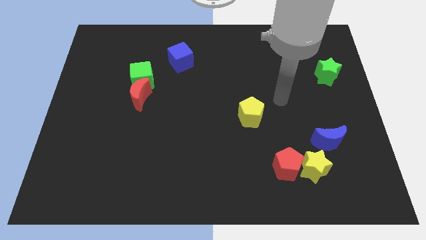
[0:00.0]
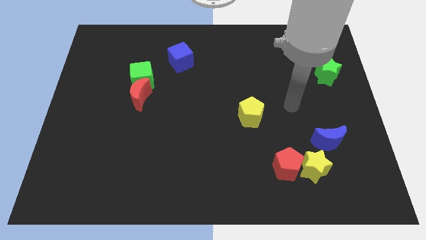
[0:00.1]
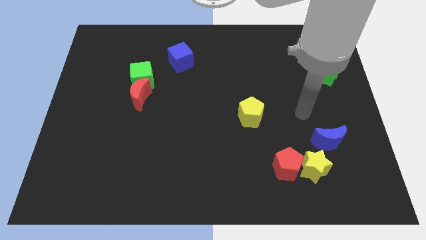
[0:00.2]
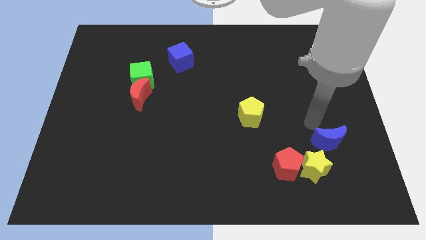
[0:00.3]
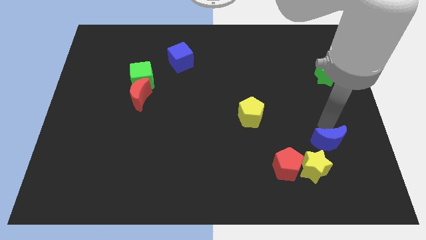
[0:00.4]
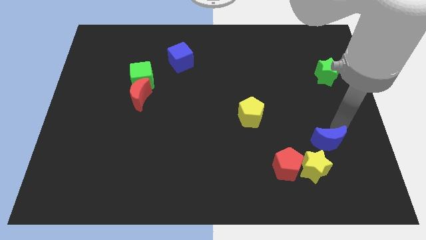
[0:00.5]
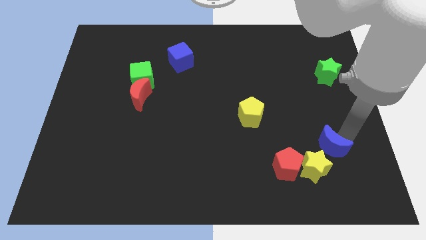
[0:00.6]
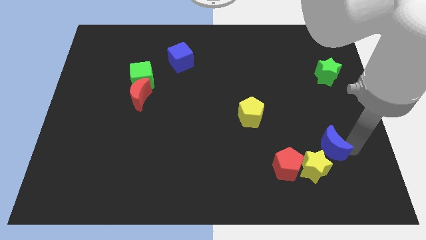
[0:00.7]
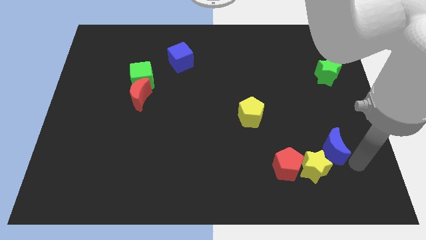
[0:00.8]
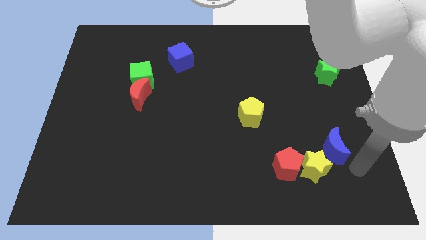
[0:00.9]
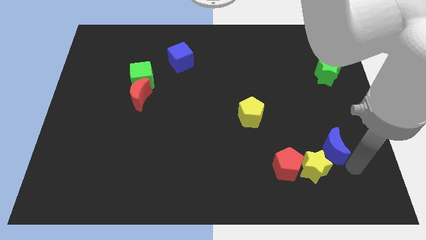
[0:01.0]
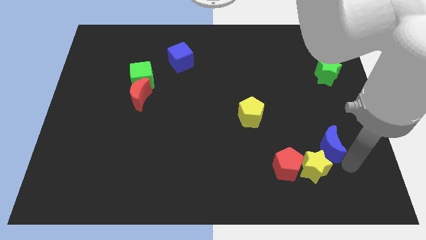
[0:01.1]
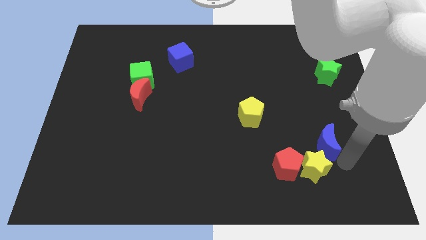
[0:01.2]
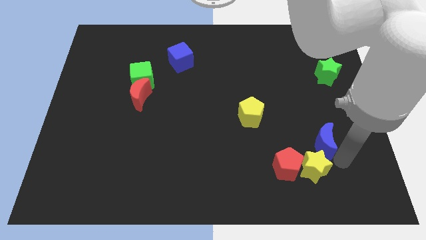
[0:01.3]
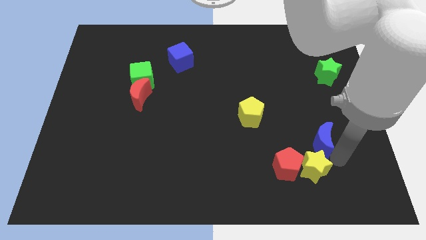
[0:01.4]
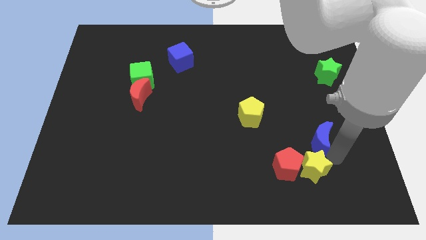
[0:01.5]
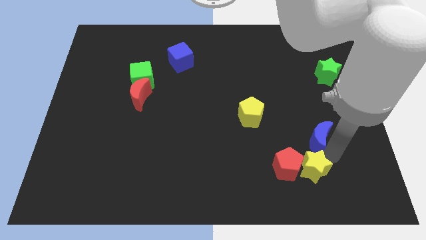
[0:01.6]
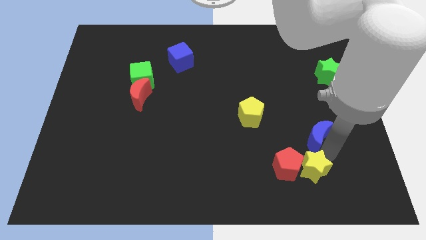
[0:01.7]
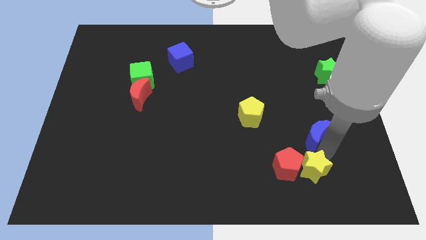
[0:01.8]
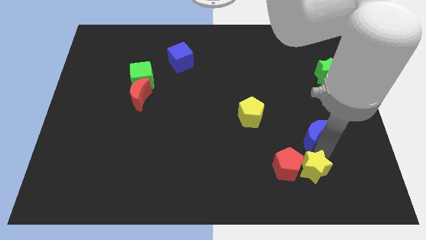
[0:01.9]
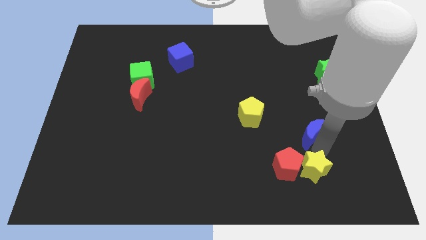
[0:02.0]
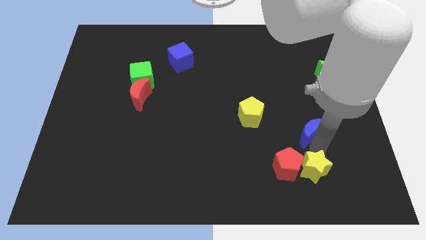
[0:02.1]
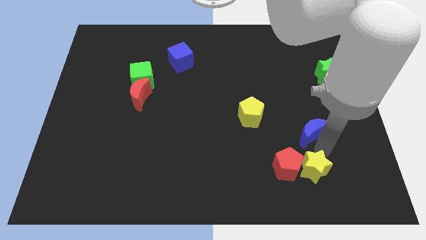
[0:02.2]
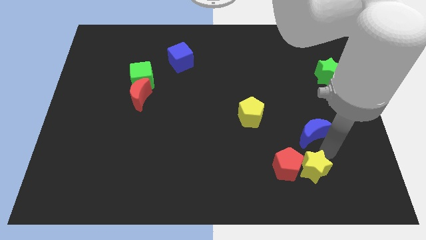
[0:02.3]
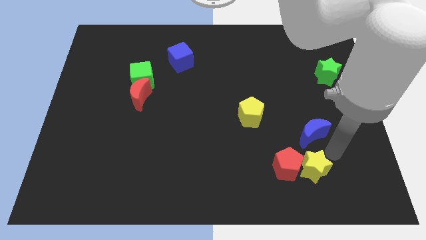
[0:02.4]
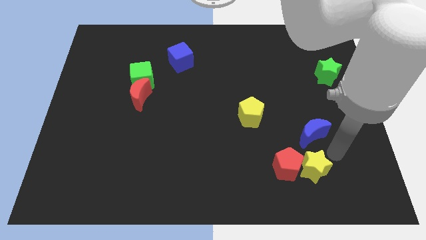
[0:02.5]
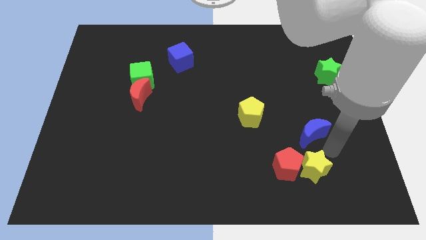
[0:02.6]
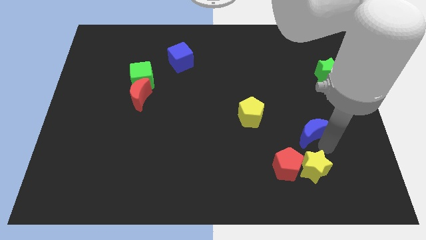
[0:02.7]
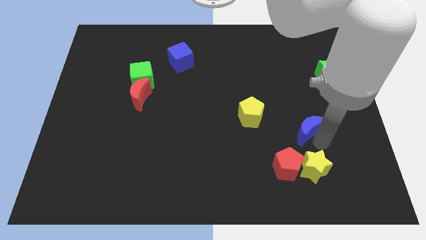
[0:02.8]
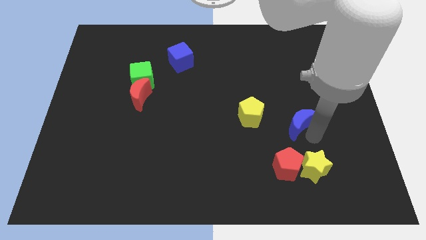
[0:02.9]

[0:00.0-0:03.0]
slightly move the blue moon upwards and then left

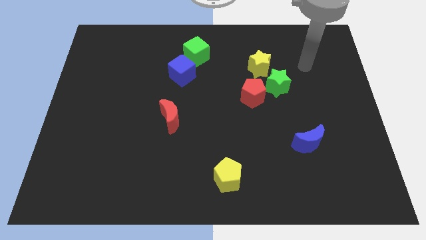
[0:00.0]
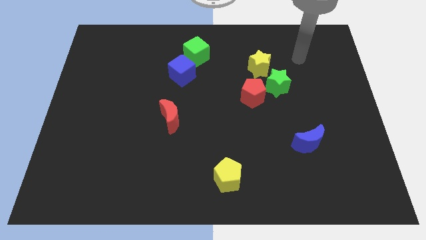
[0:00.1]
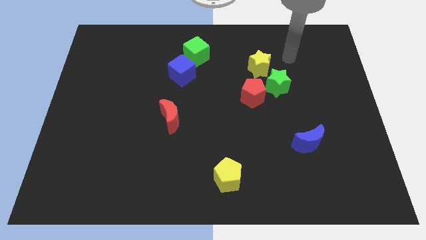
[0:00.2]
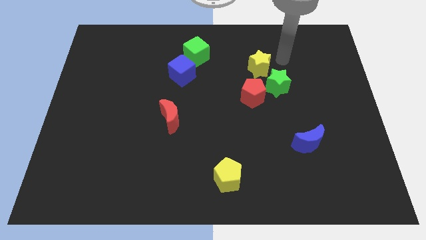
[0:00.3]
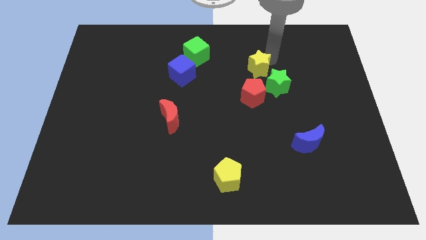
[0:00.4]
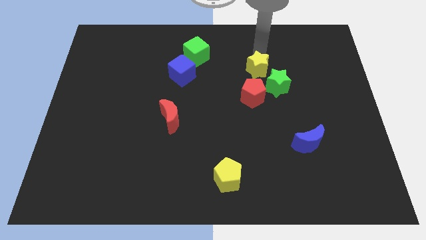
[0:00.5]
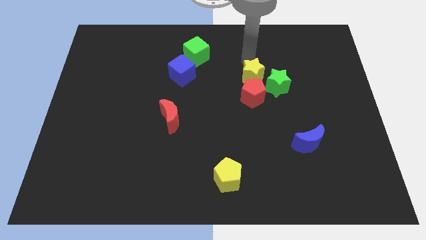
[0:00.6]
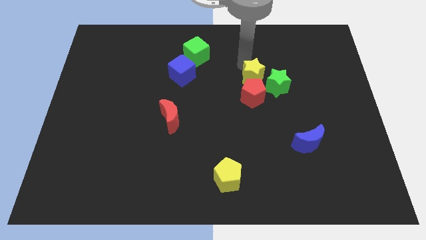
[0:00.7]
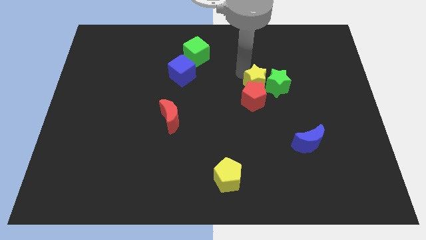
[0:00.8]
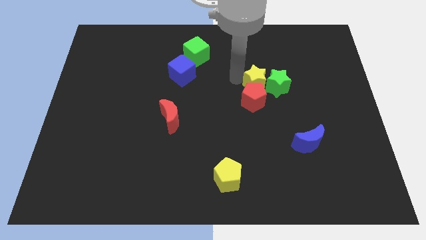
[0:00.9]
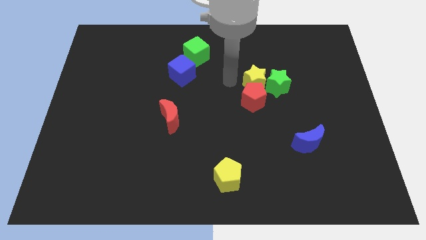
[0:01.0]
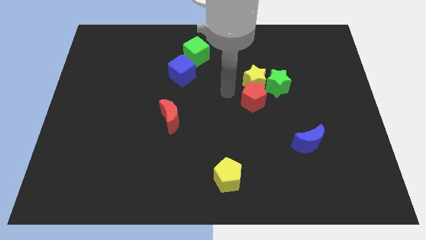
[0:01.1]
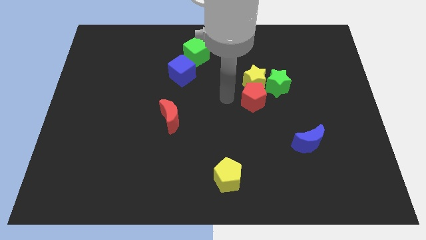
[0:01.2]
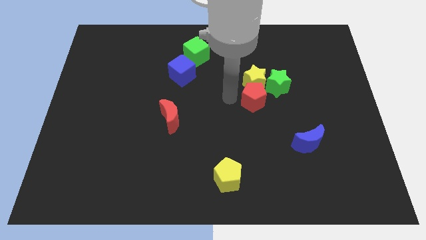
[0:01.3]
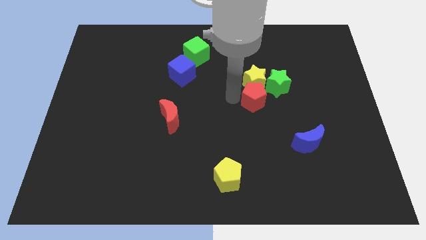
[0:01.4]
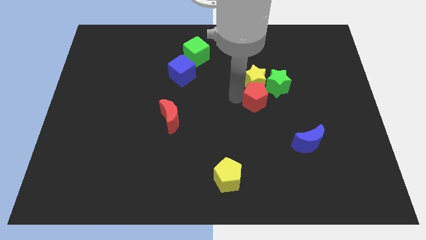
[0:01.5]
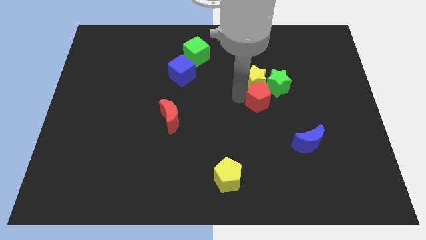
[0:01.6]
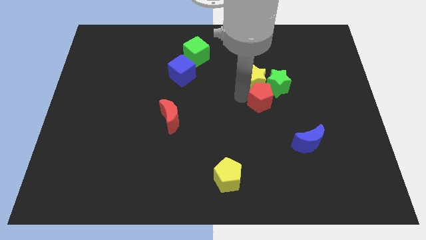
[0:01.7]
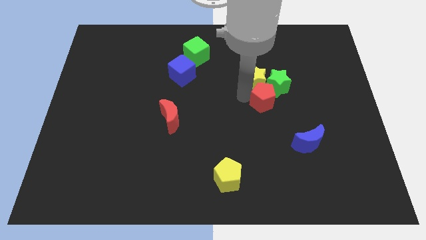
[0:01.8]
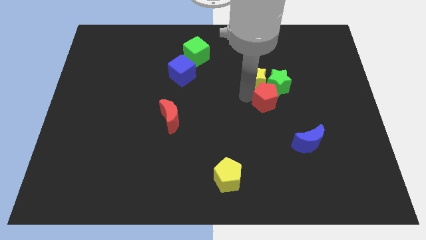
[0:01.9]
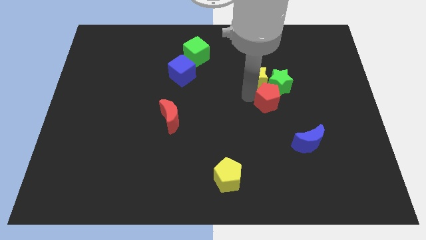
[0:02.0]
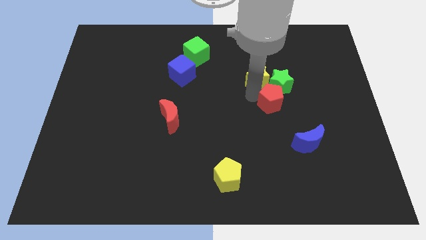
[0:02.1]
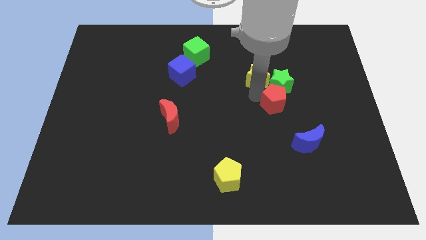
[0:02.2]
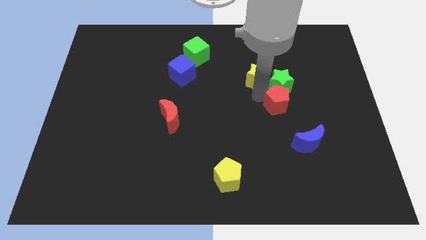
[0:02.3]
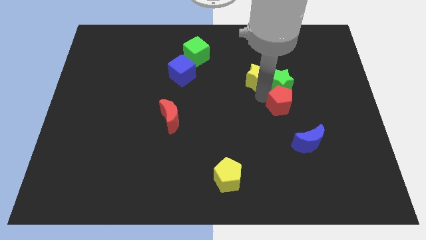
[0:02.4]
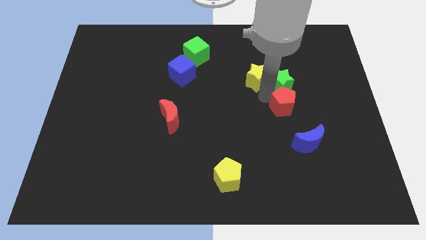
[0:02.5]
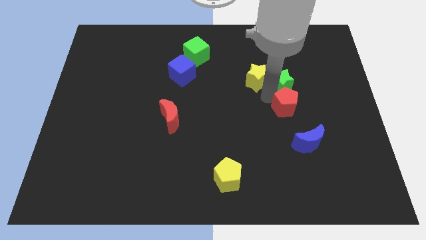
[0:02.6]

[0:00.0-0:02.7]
move the red pentagon a bit to the right

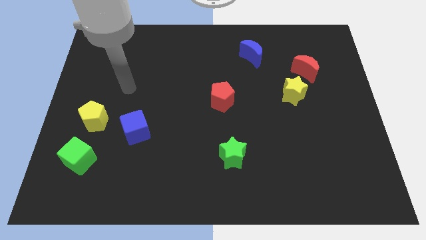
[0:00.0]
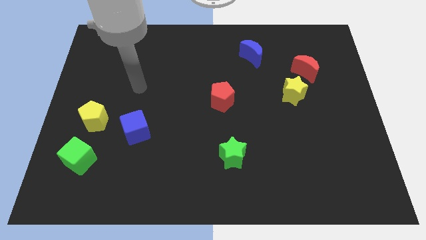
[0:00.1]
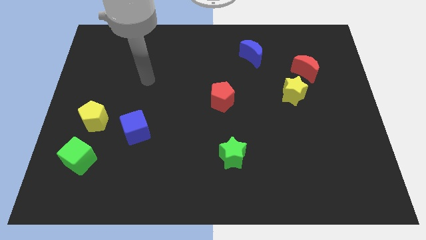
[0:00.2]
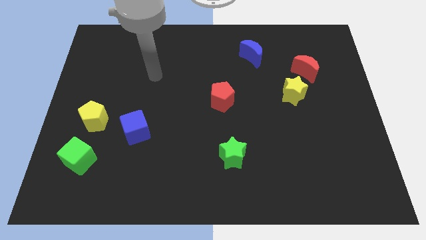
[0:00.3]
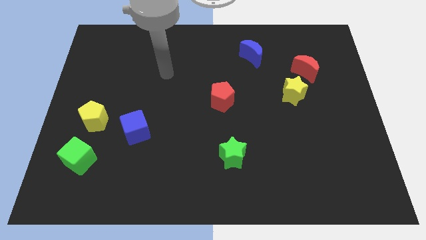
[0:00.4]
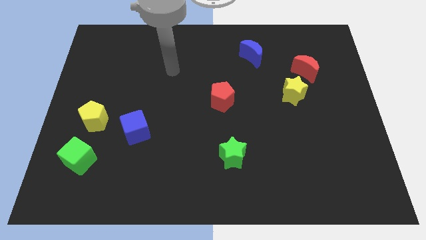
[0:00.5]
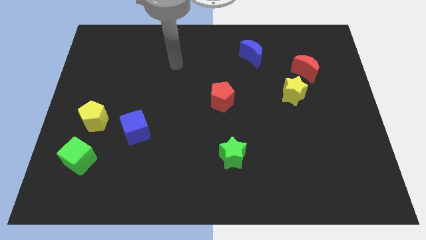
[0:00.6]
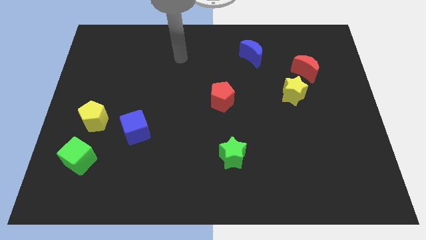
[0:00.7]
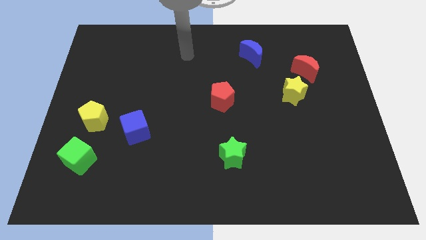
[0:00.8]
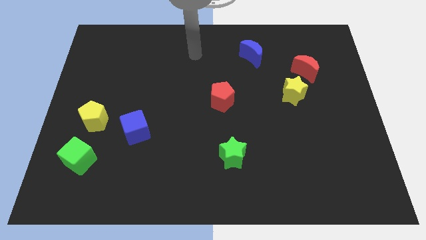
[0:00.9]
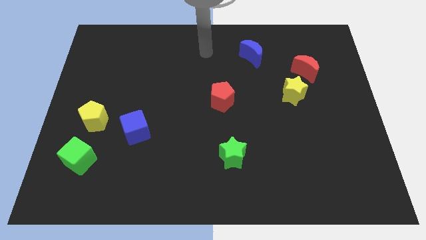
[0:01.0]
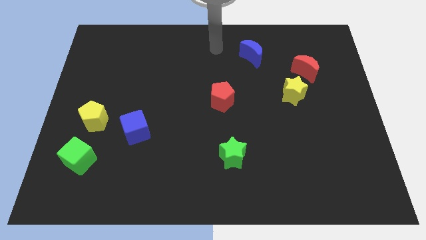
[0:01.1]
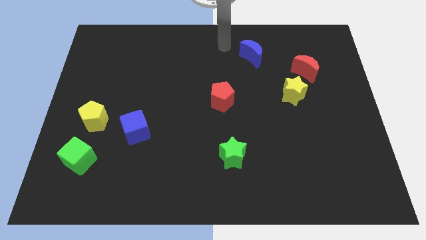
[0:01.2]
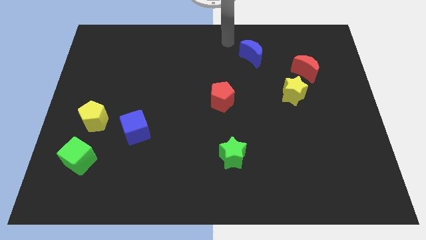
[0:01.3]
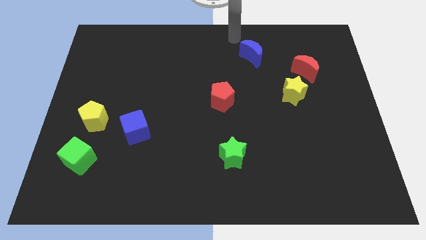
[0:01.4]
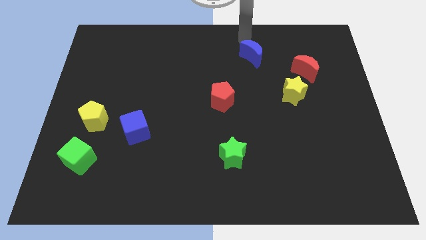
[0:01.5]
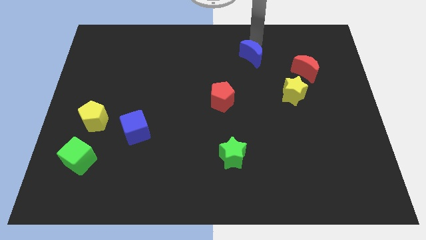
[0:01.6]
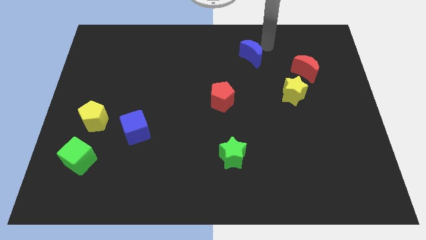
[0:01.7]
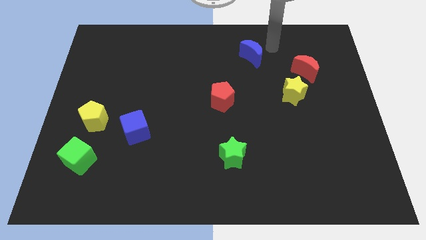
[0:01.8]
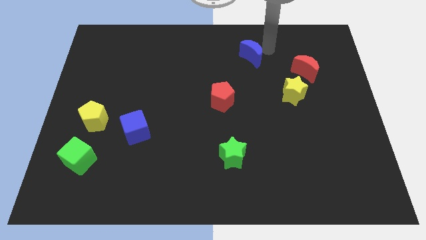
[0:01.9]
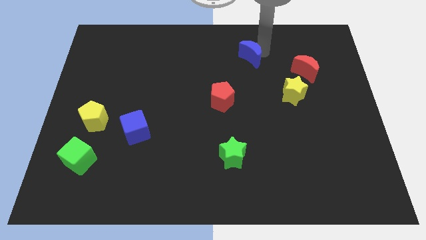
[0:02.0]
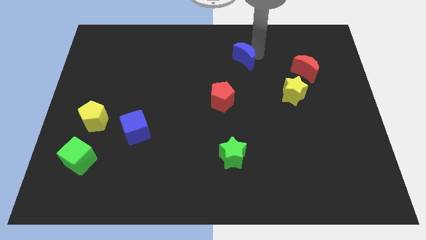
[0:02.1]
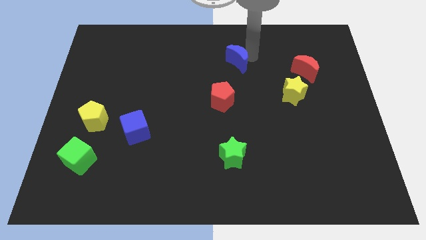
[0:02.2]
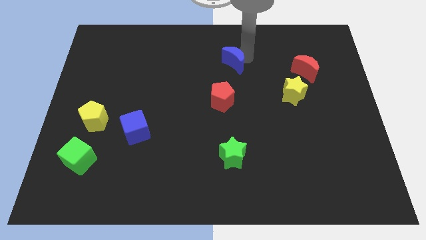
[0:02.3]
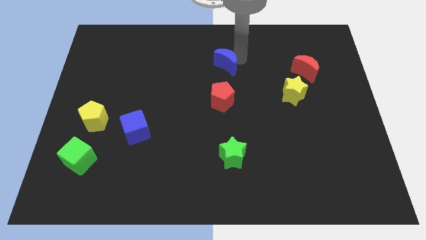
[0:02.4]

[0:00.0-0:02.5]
slide the blue moon down and to the left diagonally a bit

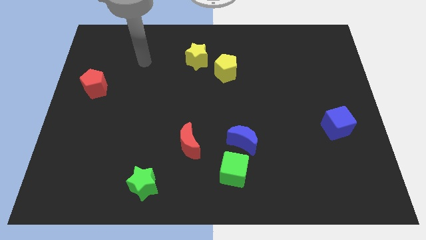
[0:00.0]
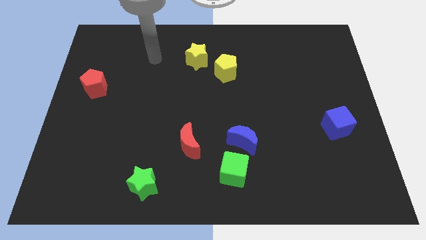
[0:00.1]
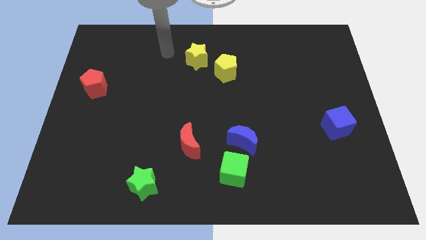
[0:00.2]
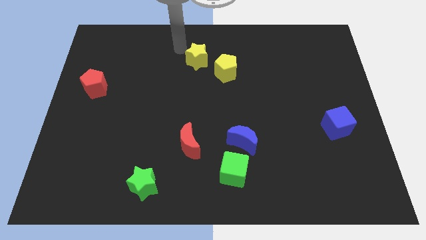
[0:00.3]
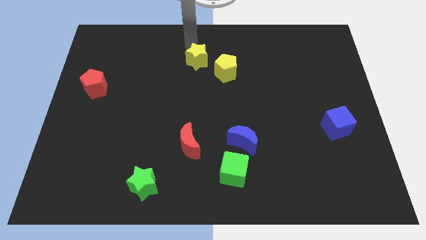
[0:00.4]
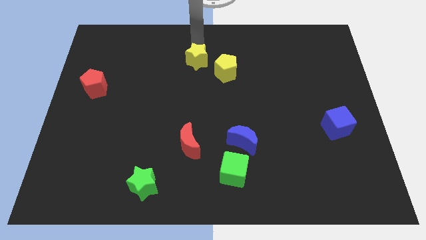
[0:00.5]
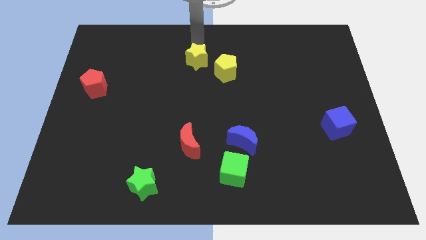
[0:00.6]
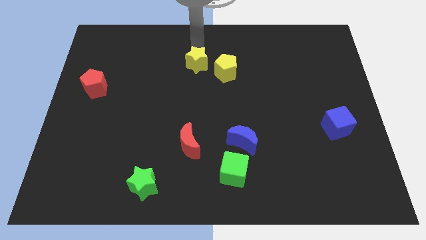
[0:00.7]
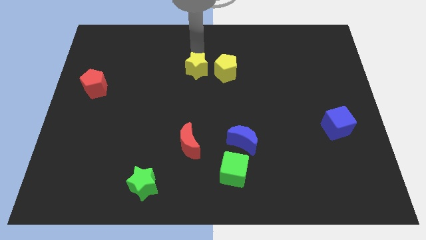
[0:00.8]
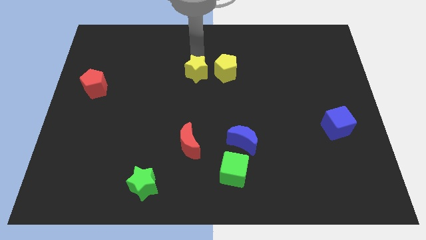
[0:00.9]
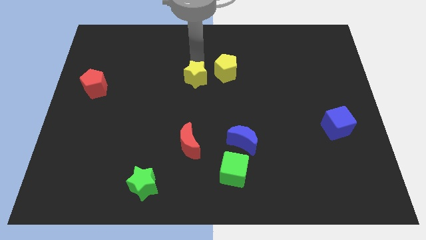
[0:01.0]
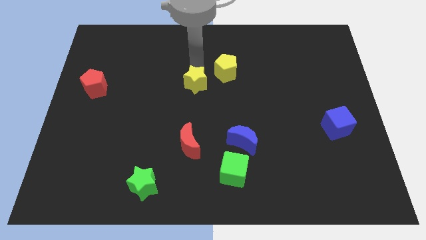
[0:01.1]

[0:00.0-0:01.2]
push the yellow star downwards a bit
